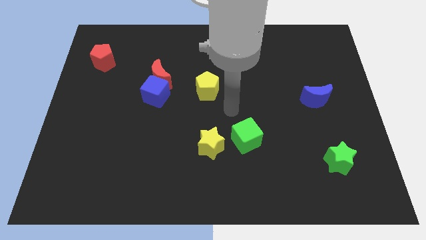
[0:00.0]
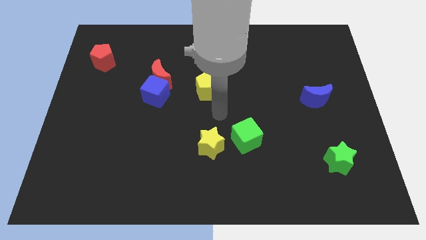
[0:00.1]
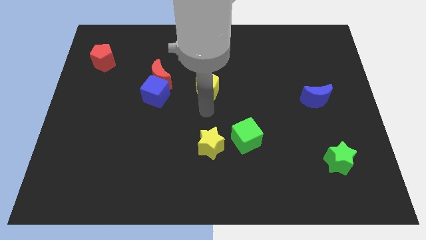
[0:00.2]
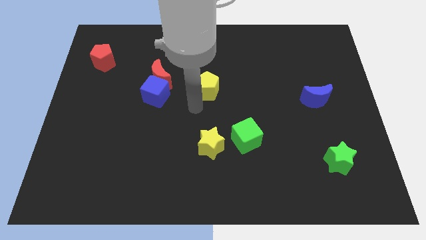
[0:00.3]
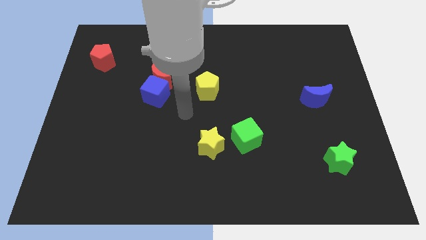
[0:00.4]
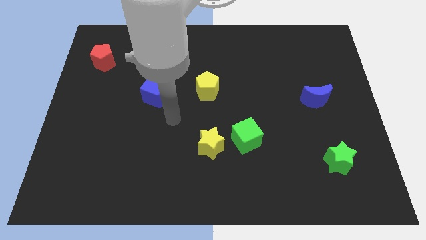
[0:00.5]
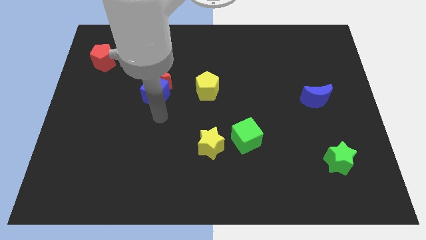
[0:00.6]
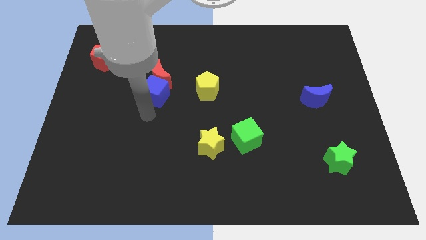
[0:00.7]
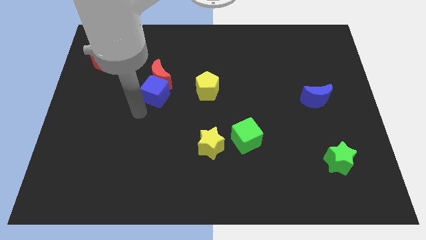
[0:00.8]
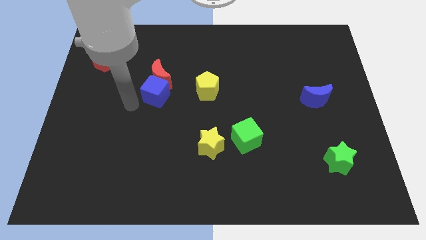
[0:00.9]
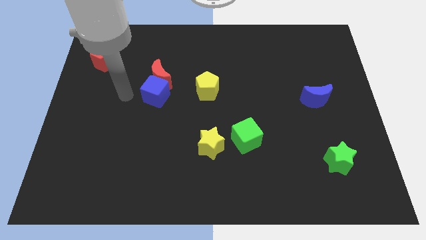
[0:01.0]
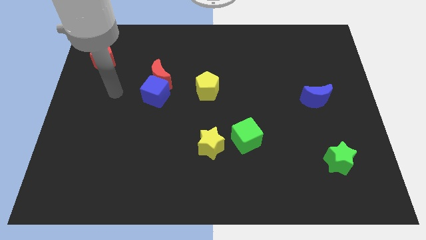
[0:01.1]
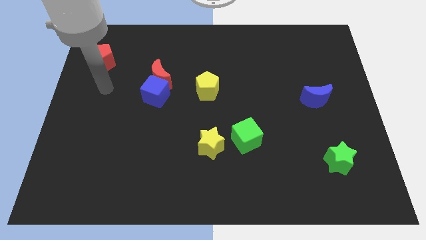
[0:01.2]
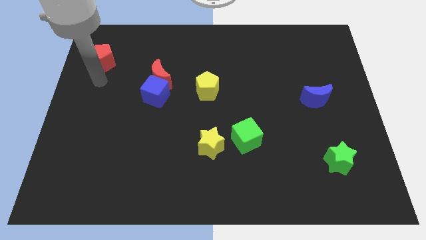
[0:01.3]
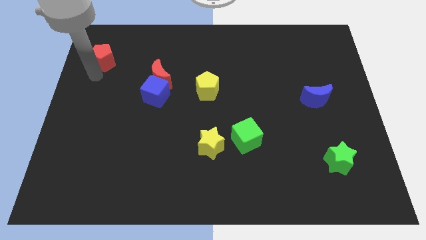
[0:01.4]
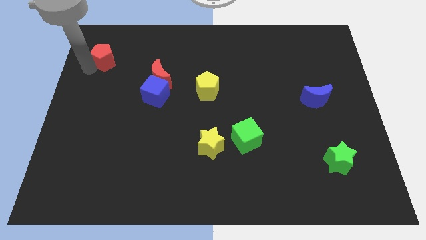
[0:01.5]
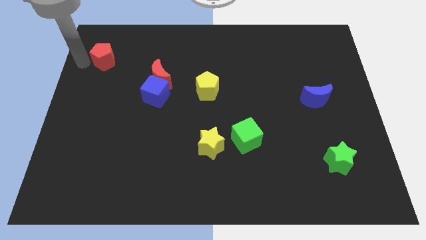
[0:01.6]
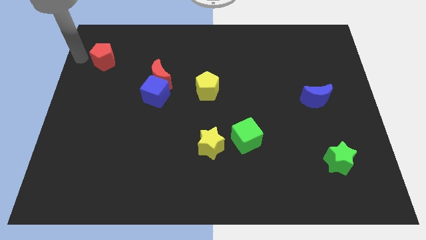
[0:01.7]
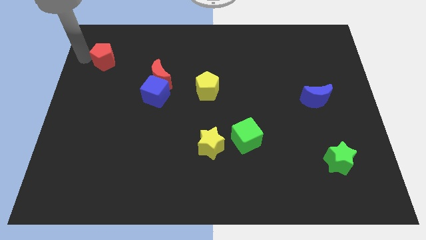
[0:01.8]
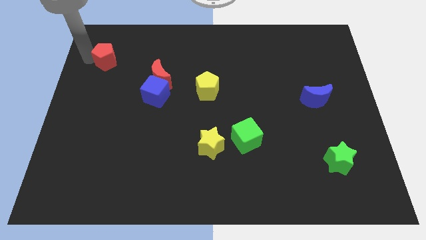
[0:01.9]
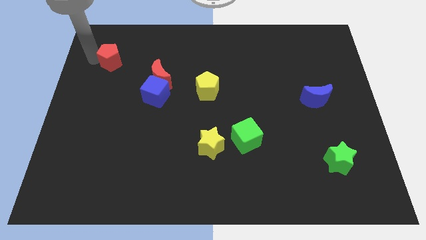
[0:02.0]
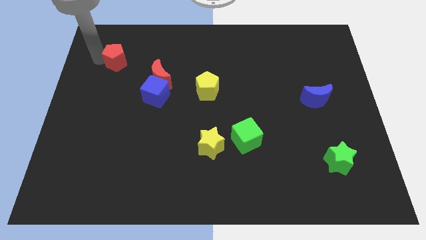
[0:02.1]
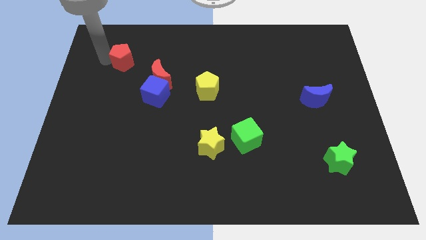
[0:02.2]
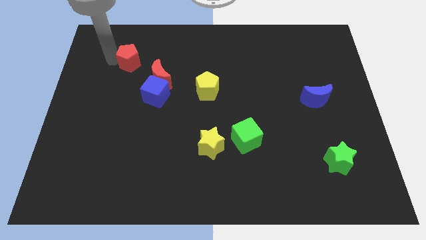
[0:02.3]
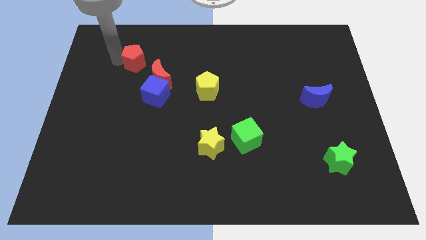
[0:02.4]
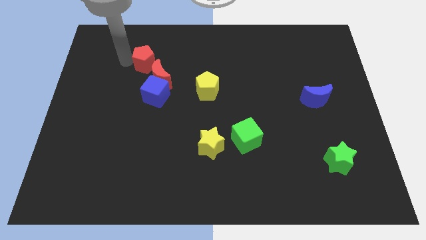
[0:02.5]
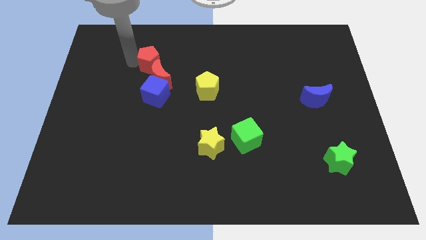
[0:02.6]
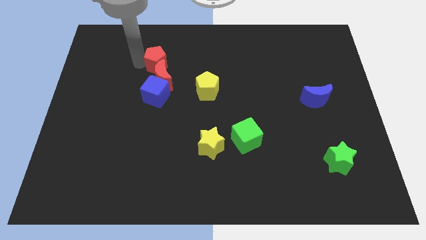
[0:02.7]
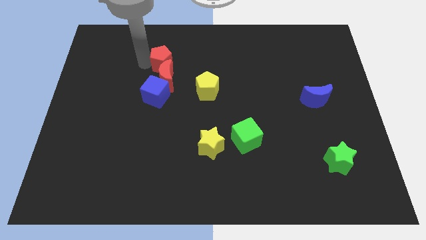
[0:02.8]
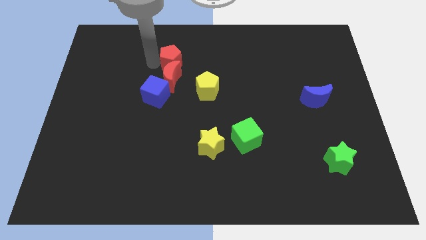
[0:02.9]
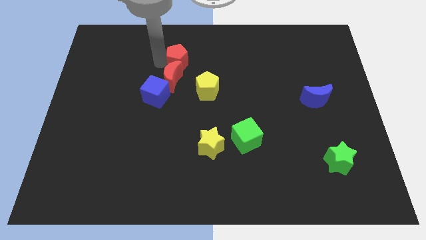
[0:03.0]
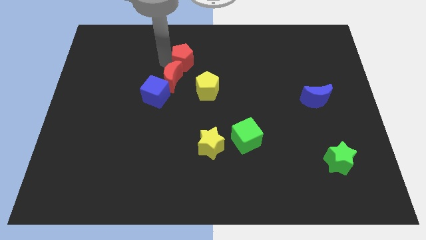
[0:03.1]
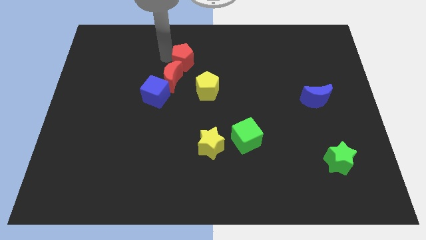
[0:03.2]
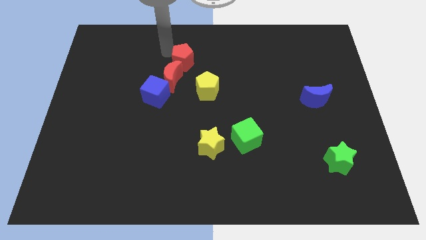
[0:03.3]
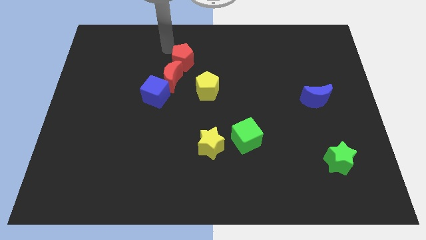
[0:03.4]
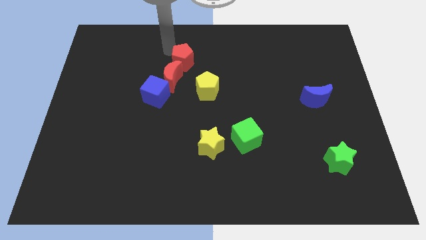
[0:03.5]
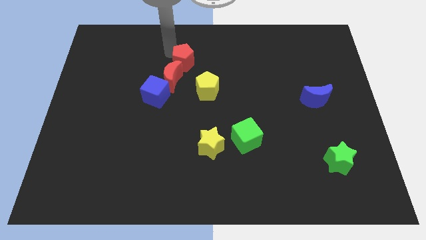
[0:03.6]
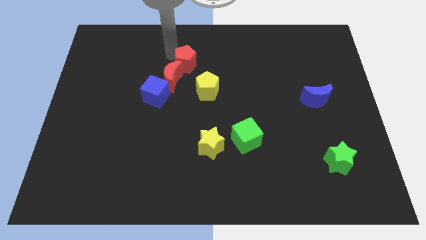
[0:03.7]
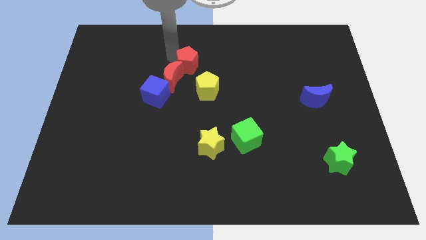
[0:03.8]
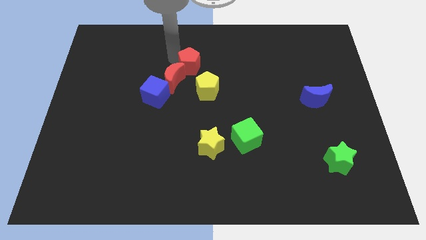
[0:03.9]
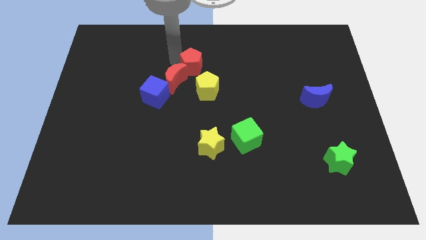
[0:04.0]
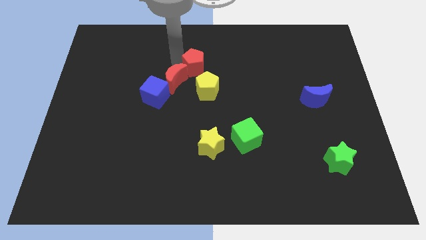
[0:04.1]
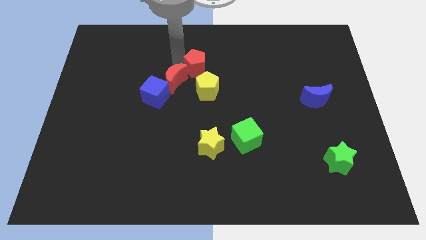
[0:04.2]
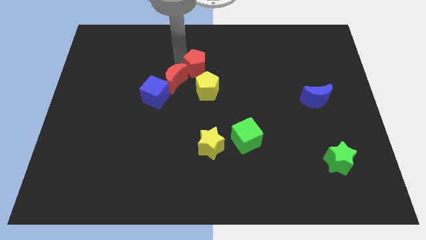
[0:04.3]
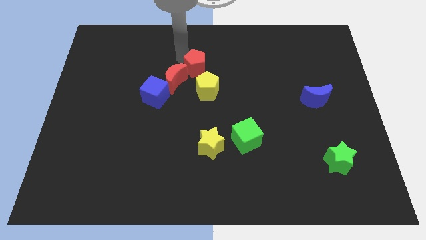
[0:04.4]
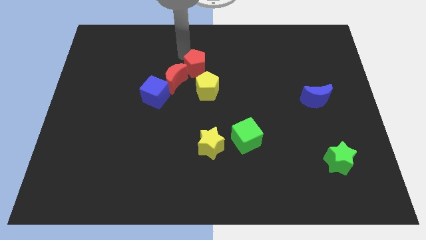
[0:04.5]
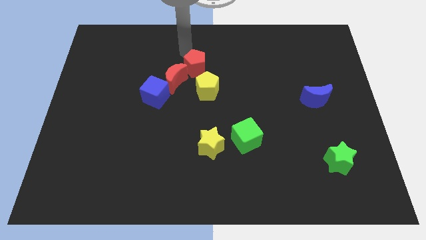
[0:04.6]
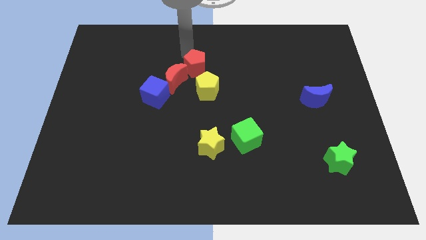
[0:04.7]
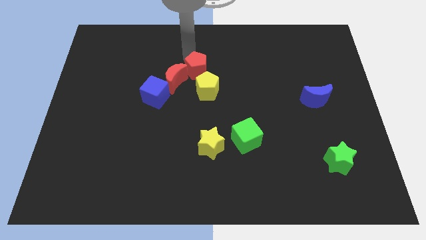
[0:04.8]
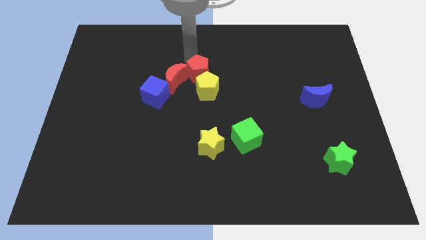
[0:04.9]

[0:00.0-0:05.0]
slide the red pentagon towards the yellow pentagon

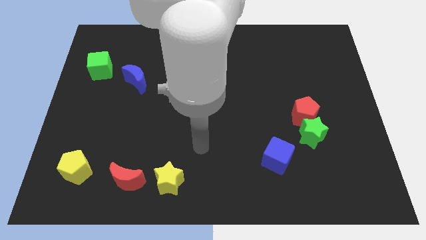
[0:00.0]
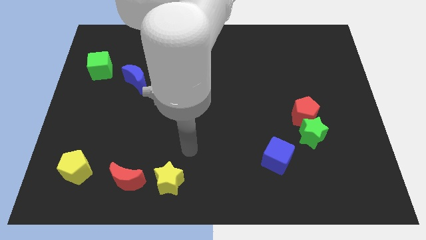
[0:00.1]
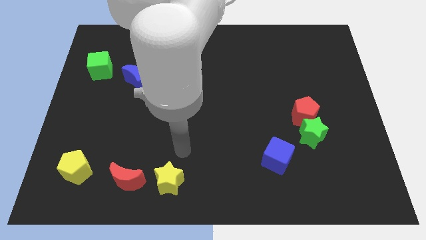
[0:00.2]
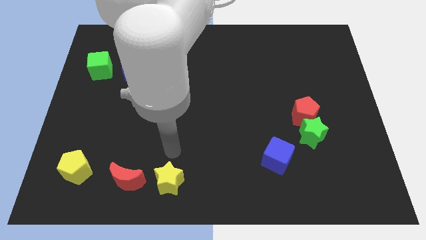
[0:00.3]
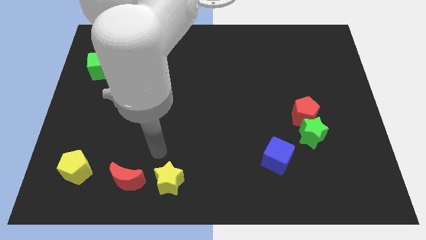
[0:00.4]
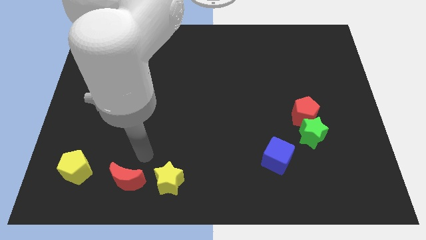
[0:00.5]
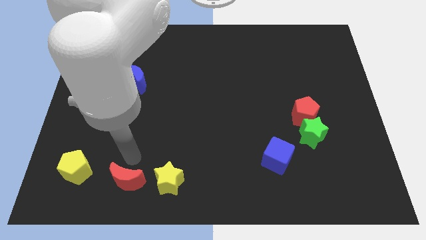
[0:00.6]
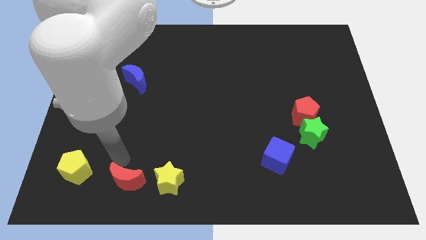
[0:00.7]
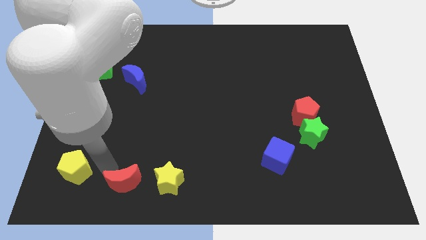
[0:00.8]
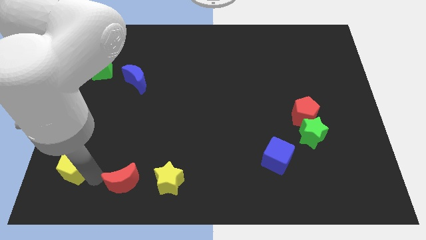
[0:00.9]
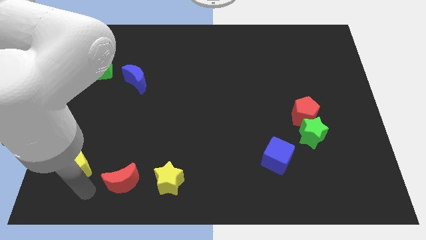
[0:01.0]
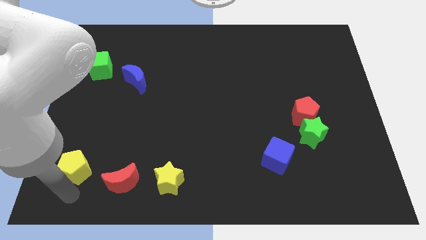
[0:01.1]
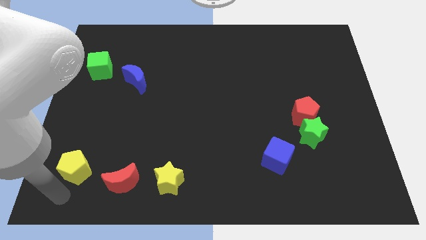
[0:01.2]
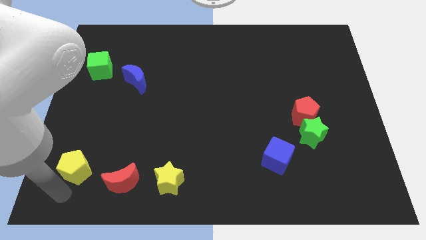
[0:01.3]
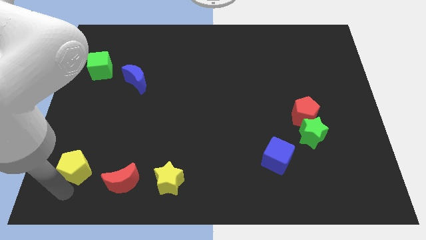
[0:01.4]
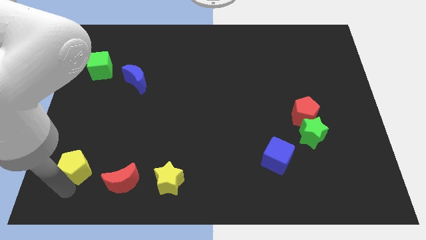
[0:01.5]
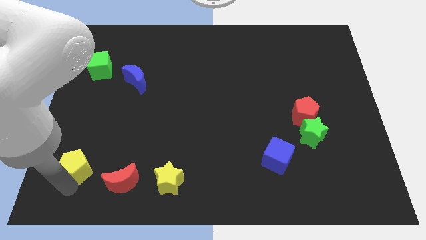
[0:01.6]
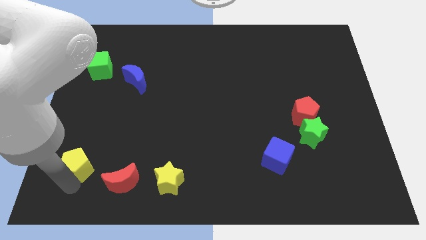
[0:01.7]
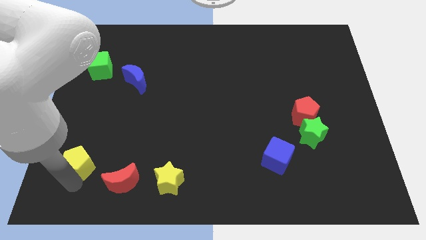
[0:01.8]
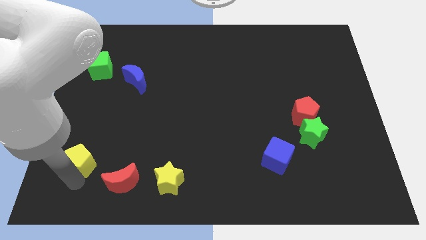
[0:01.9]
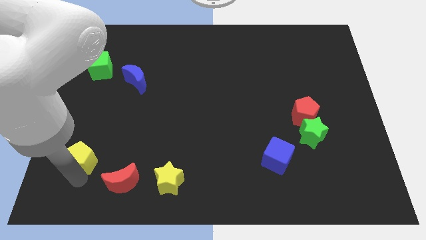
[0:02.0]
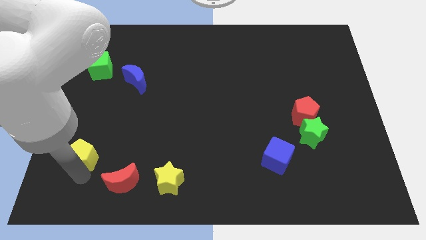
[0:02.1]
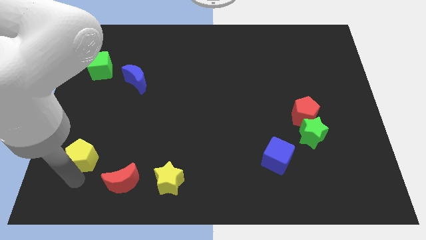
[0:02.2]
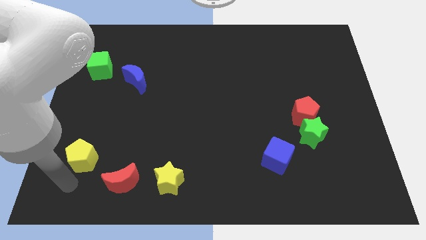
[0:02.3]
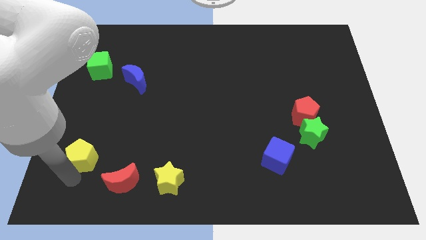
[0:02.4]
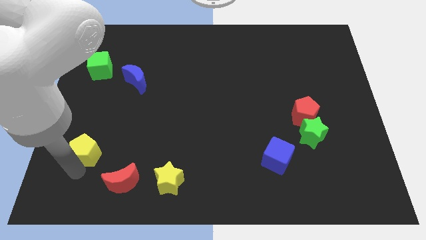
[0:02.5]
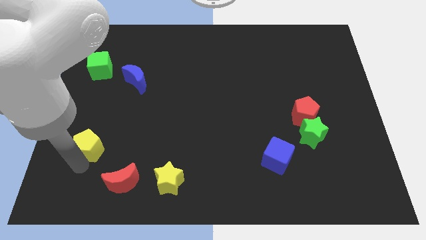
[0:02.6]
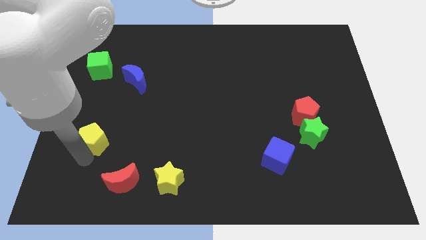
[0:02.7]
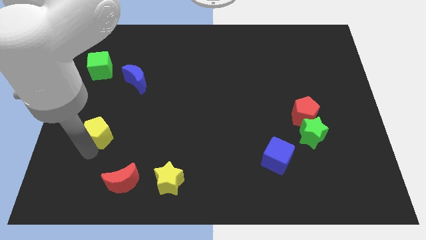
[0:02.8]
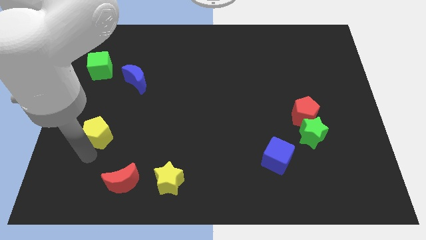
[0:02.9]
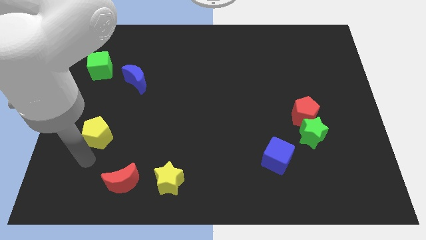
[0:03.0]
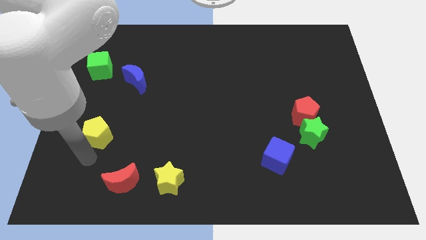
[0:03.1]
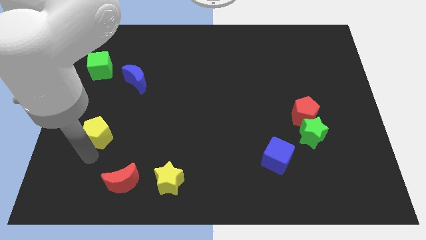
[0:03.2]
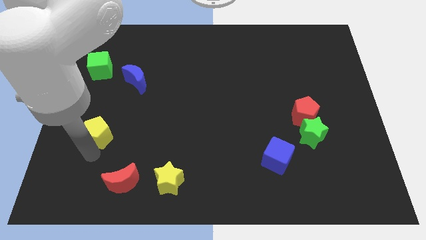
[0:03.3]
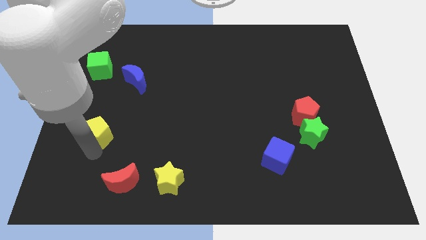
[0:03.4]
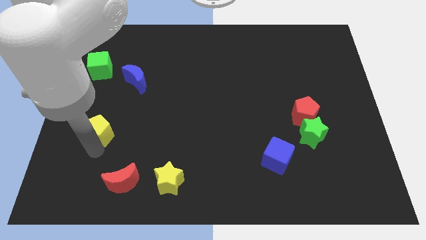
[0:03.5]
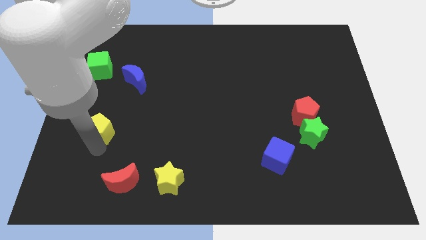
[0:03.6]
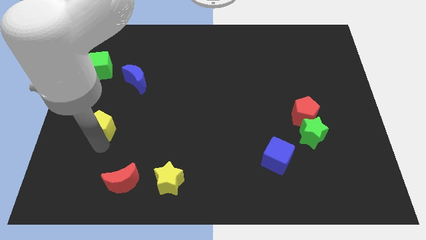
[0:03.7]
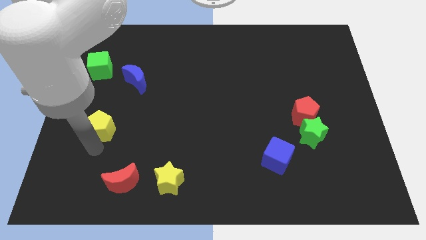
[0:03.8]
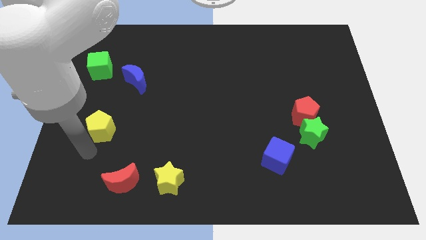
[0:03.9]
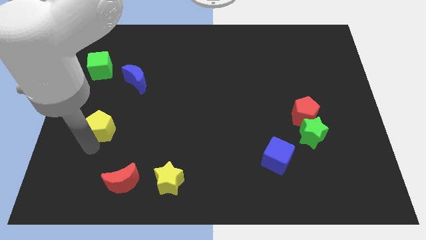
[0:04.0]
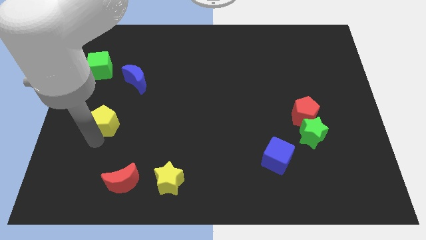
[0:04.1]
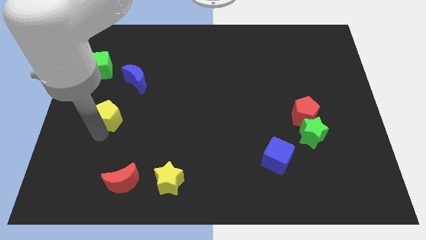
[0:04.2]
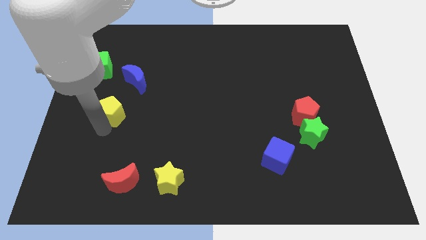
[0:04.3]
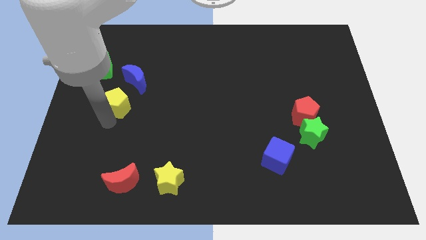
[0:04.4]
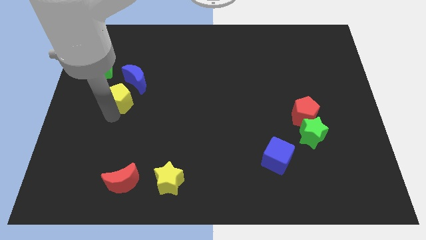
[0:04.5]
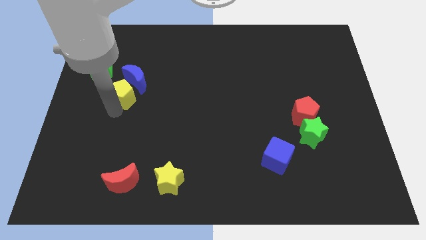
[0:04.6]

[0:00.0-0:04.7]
move the yellow pentagon close to the blue moon
